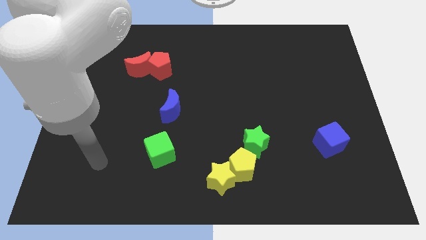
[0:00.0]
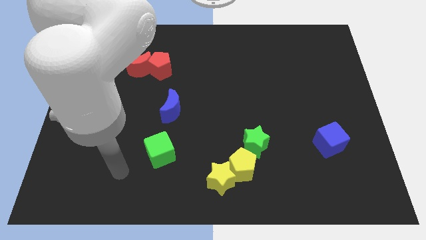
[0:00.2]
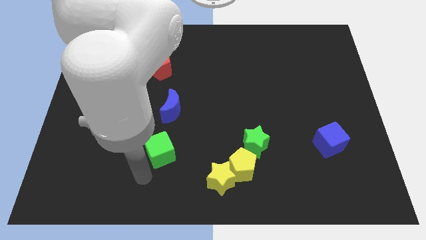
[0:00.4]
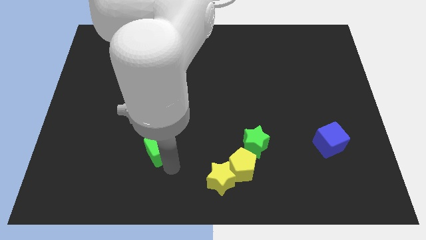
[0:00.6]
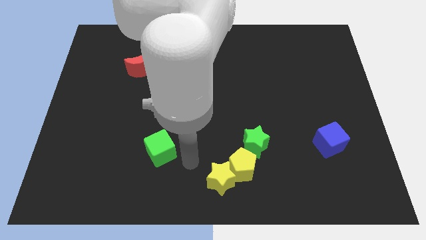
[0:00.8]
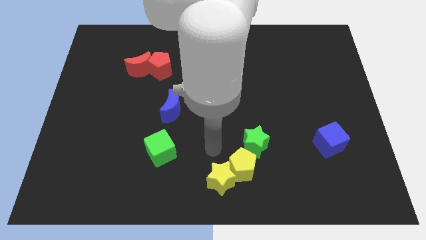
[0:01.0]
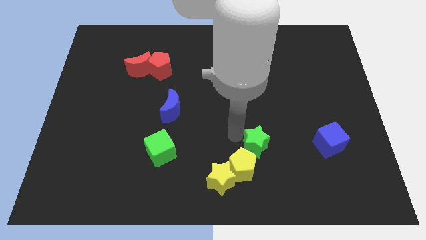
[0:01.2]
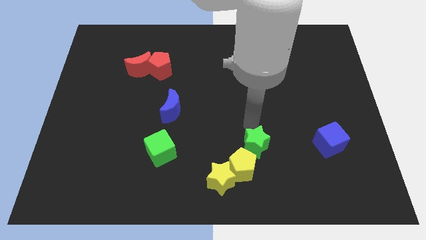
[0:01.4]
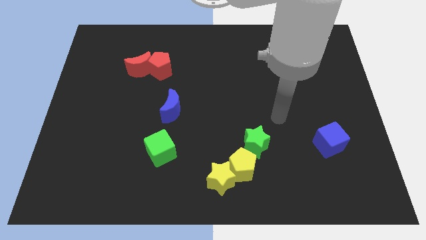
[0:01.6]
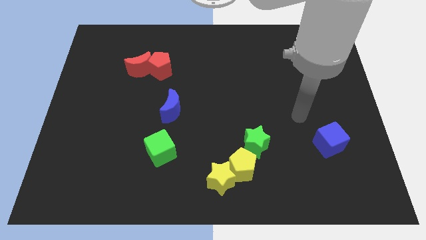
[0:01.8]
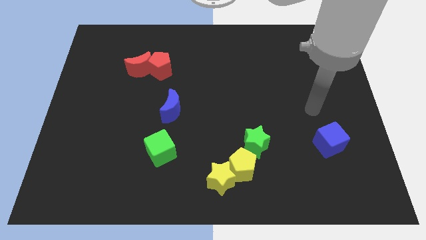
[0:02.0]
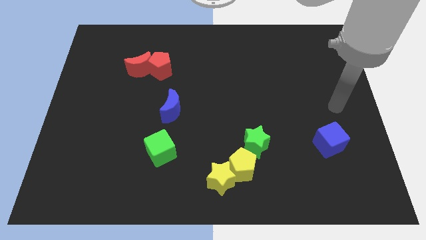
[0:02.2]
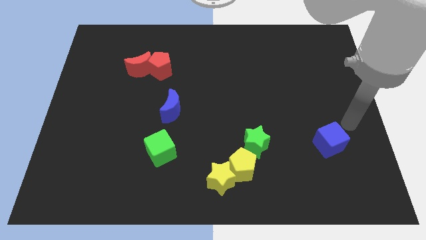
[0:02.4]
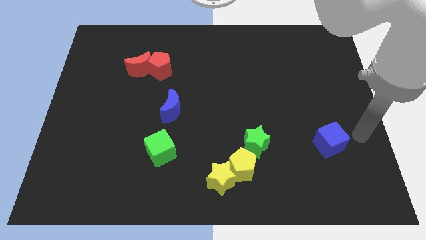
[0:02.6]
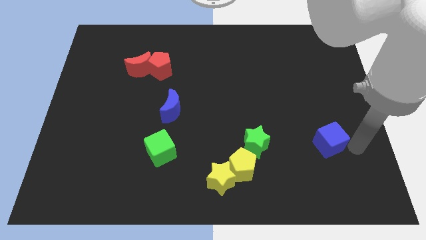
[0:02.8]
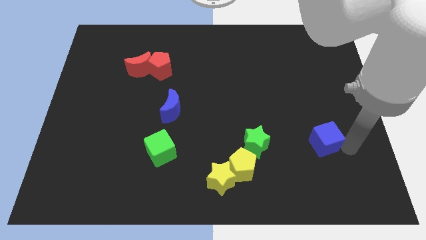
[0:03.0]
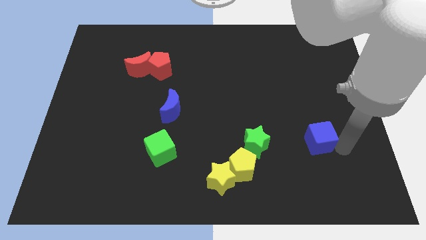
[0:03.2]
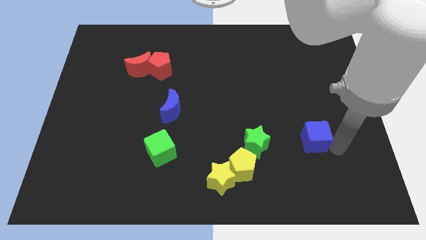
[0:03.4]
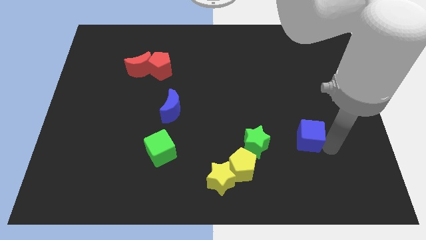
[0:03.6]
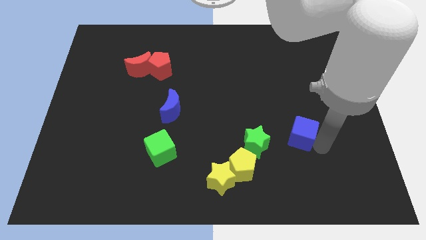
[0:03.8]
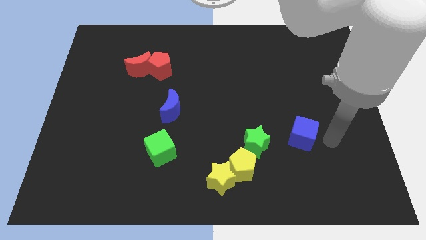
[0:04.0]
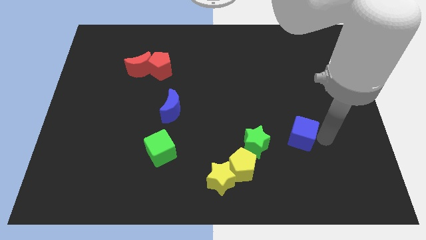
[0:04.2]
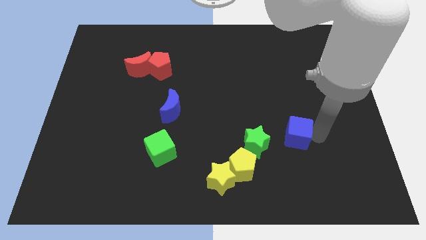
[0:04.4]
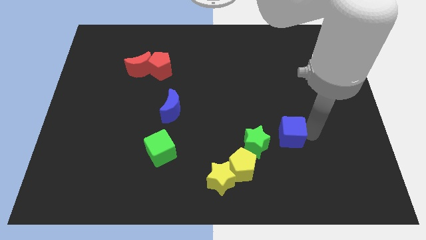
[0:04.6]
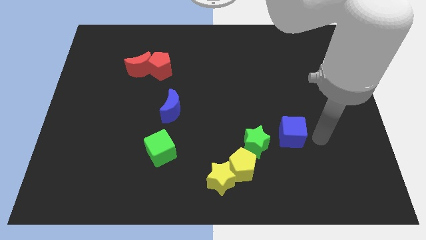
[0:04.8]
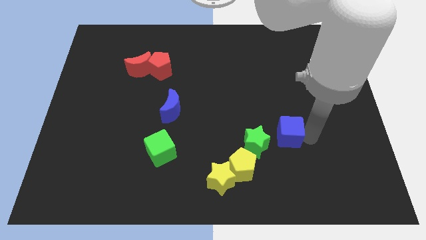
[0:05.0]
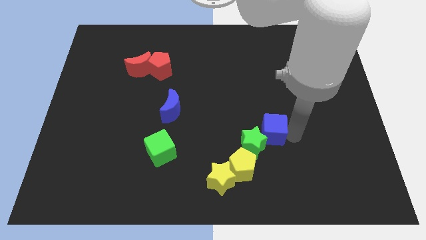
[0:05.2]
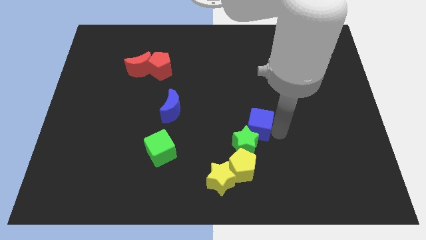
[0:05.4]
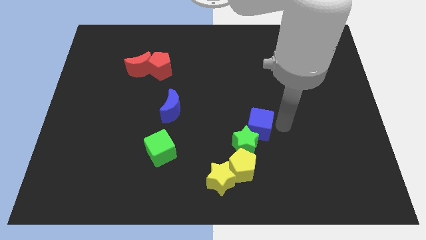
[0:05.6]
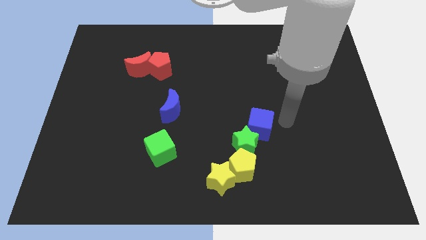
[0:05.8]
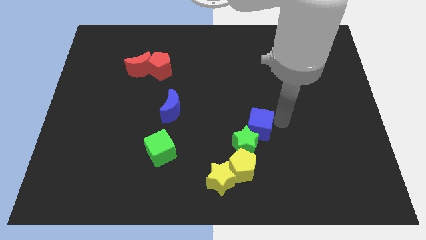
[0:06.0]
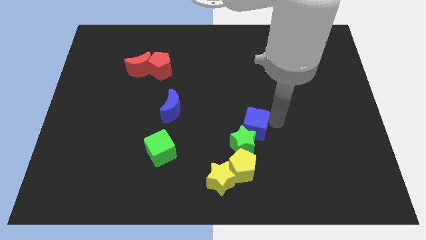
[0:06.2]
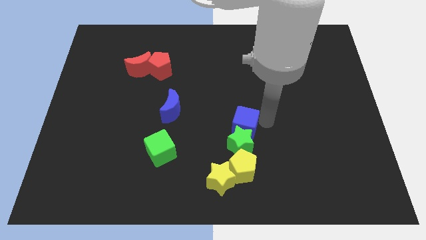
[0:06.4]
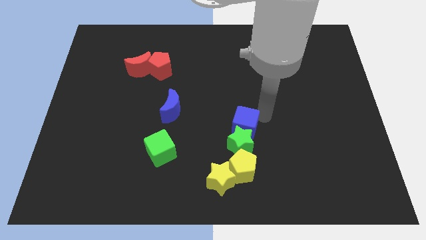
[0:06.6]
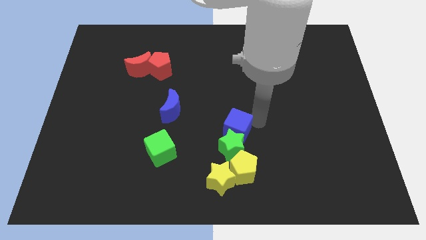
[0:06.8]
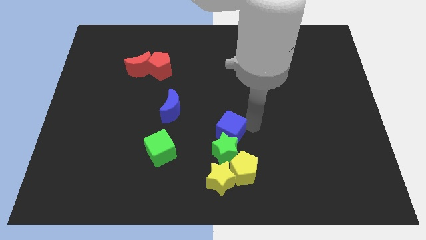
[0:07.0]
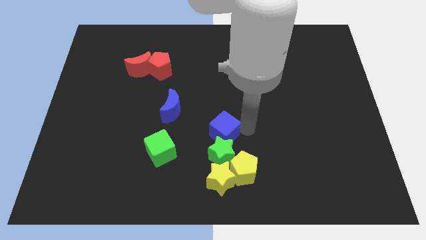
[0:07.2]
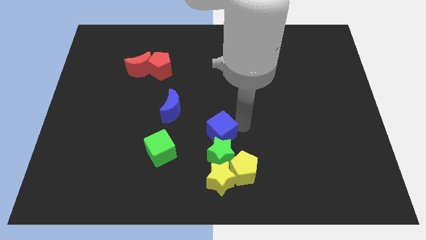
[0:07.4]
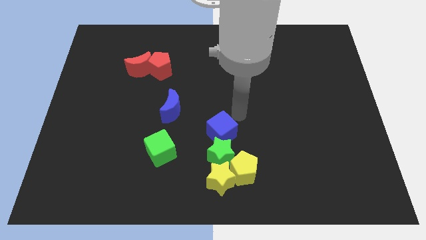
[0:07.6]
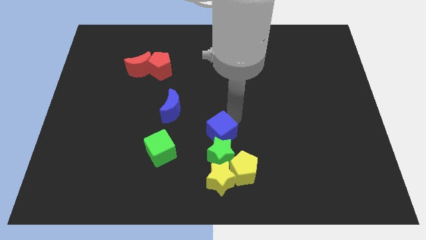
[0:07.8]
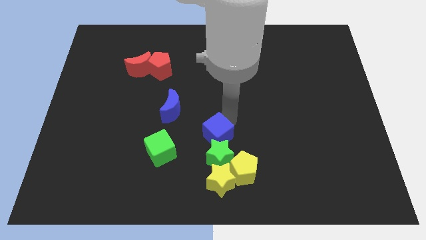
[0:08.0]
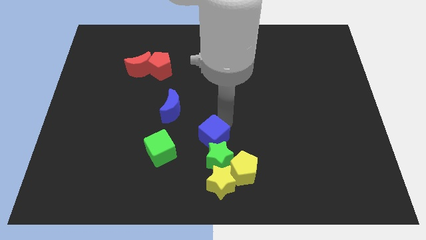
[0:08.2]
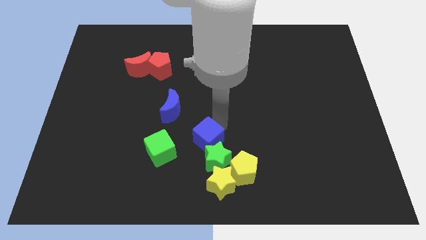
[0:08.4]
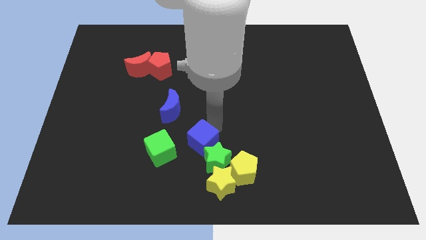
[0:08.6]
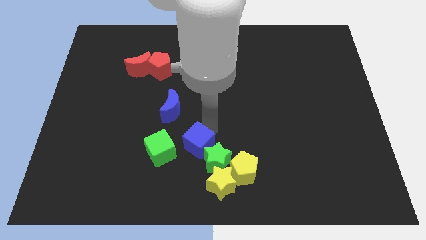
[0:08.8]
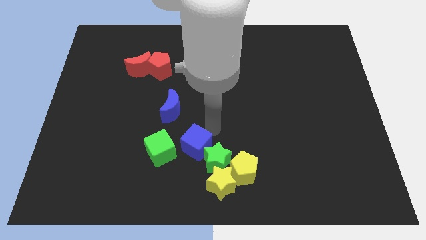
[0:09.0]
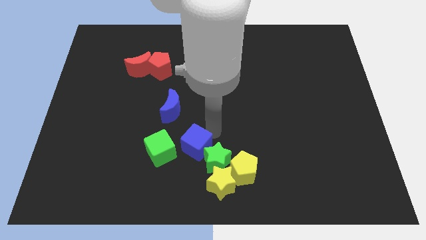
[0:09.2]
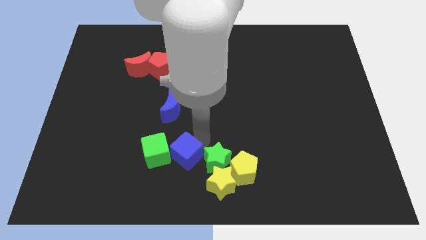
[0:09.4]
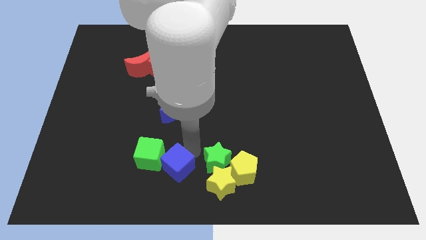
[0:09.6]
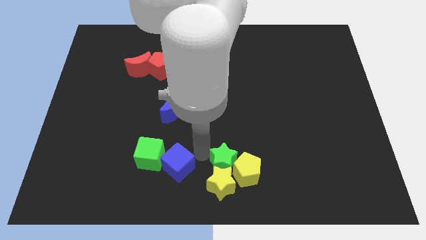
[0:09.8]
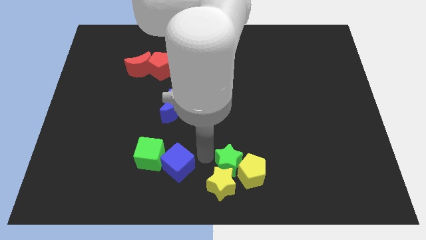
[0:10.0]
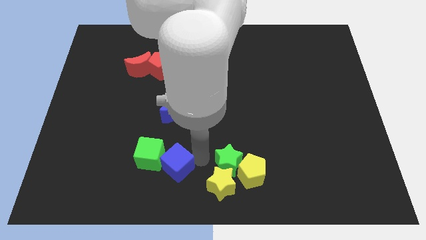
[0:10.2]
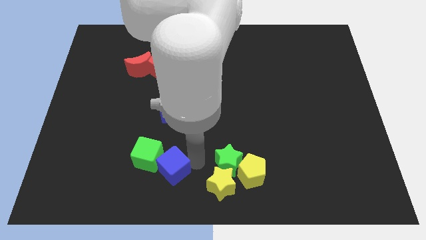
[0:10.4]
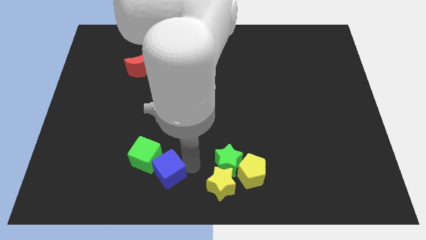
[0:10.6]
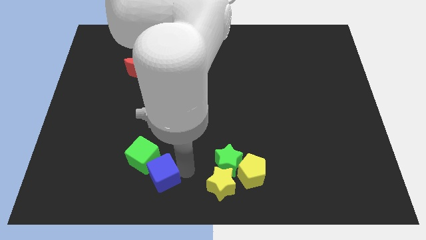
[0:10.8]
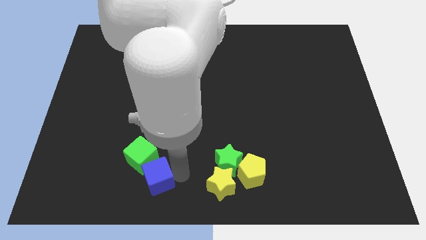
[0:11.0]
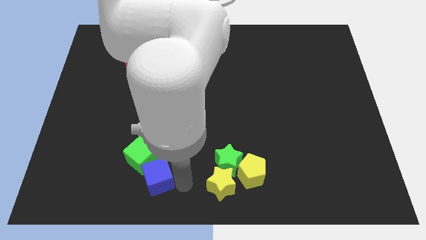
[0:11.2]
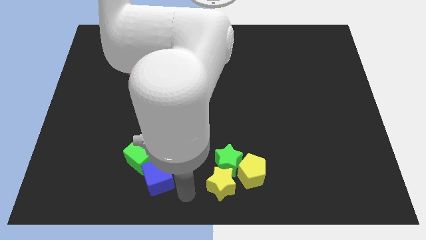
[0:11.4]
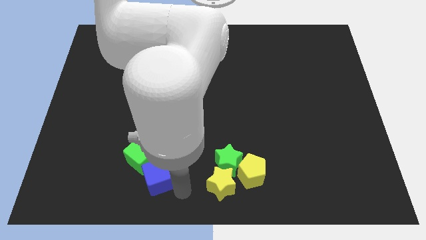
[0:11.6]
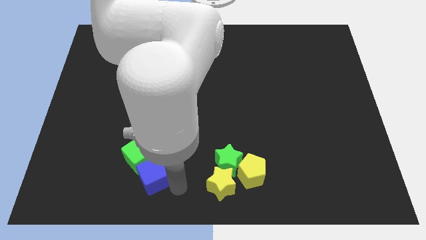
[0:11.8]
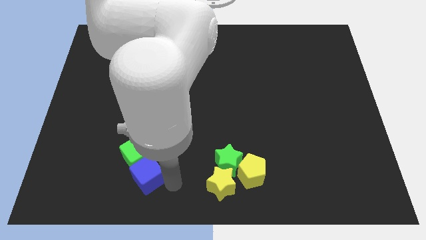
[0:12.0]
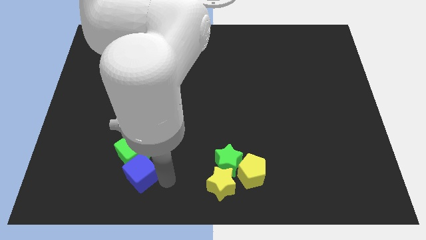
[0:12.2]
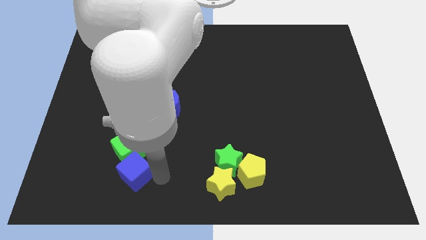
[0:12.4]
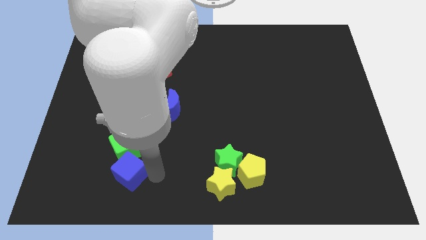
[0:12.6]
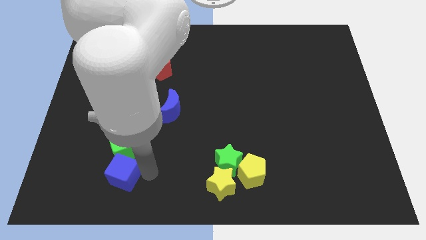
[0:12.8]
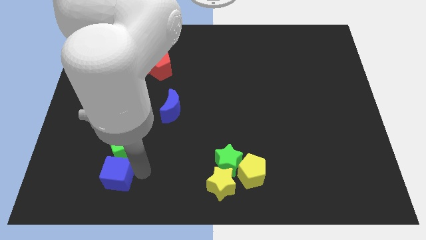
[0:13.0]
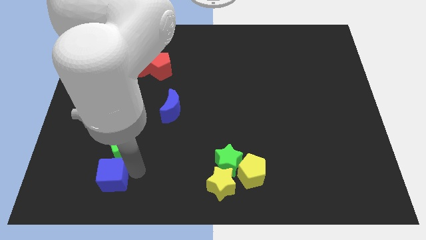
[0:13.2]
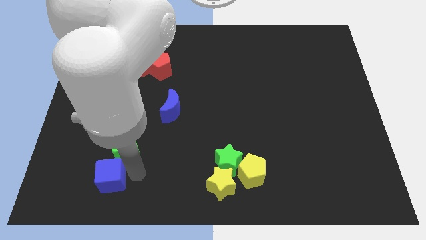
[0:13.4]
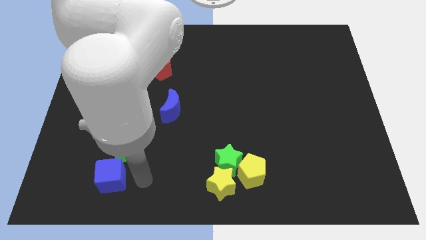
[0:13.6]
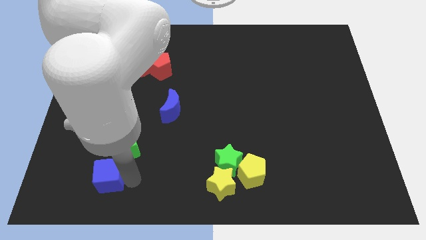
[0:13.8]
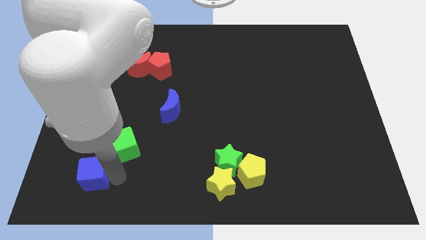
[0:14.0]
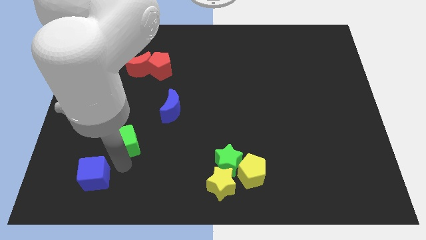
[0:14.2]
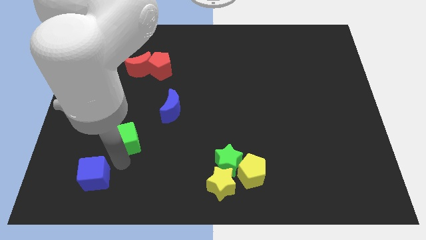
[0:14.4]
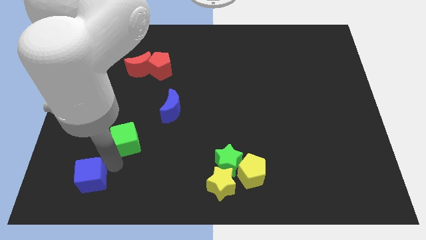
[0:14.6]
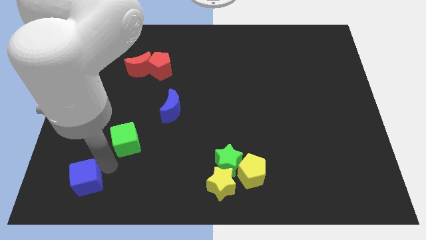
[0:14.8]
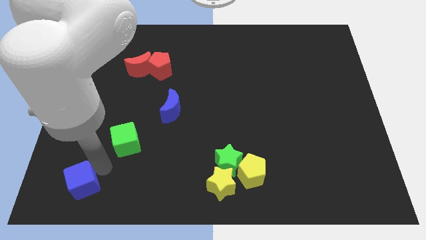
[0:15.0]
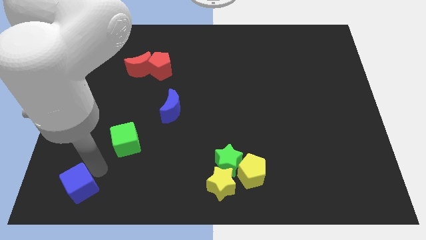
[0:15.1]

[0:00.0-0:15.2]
push the blue cube to the bottom left corner
